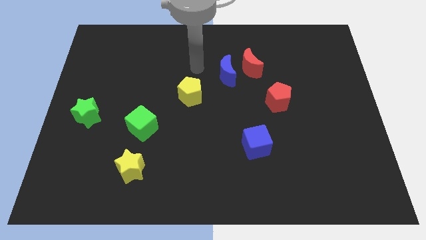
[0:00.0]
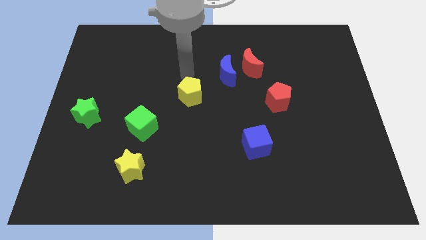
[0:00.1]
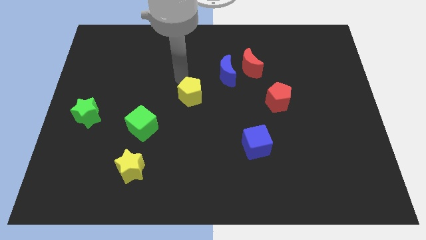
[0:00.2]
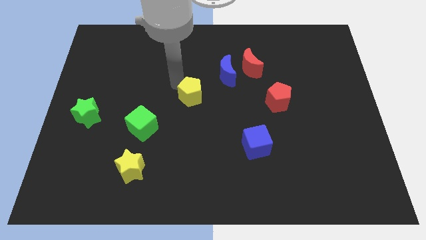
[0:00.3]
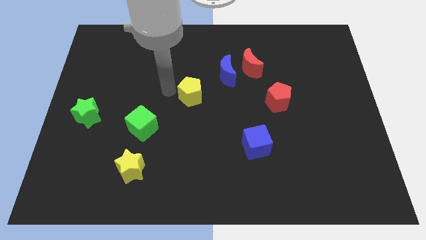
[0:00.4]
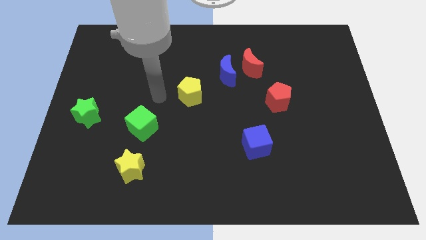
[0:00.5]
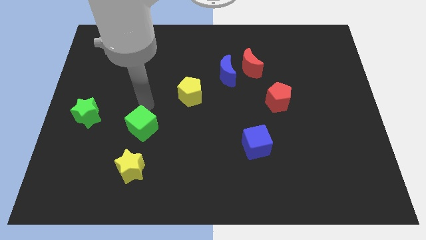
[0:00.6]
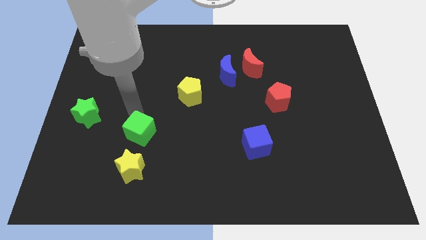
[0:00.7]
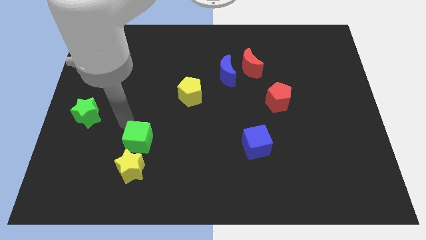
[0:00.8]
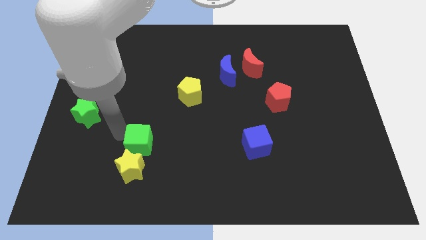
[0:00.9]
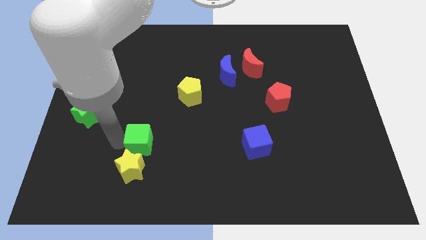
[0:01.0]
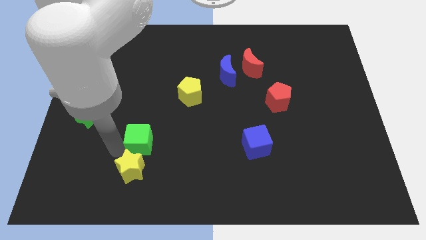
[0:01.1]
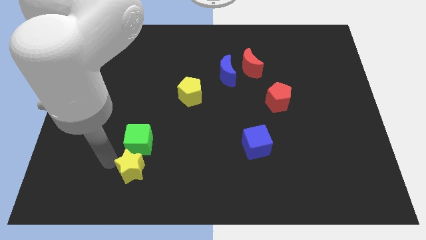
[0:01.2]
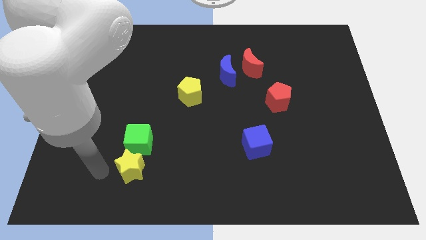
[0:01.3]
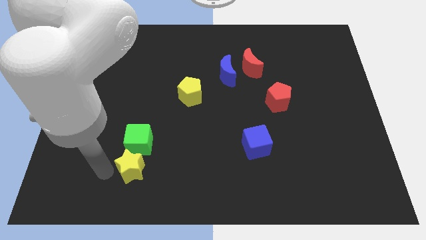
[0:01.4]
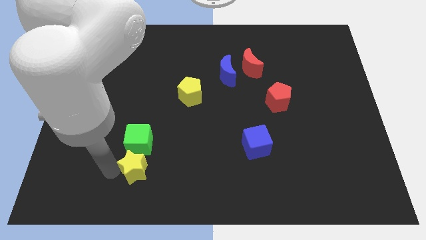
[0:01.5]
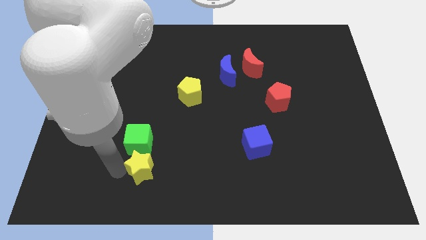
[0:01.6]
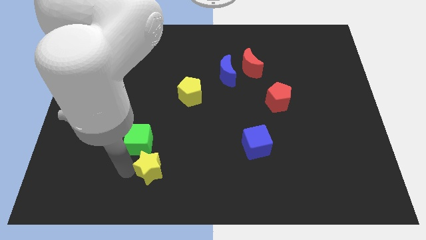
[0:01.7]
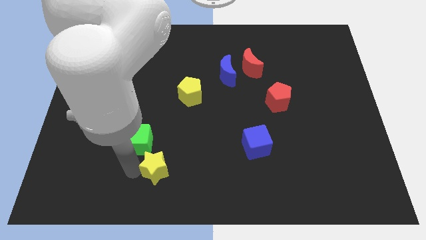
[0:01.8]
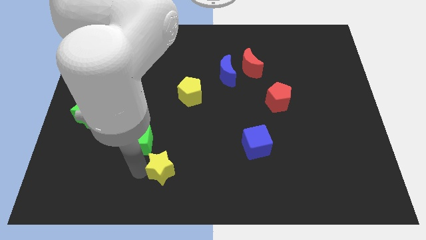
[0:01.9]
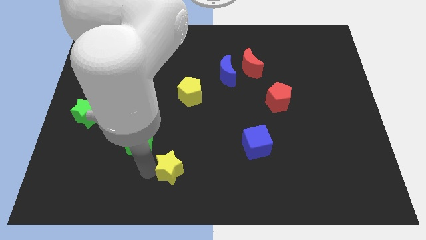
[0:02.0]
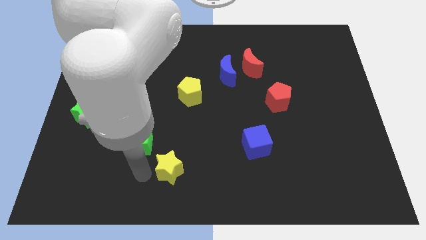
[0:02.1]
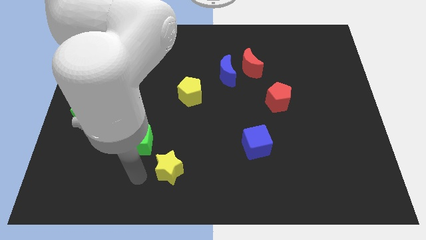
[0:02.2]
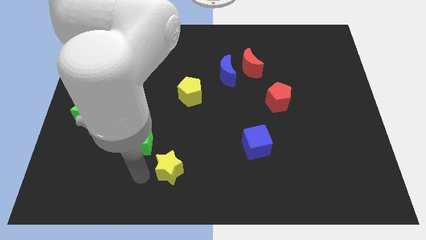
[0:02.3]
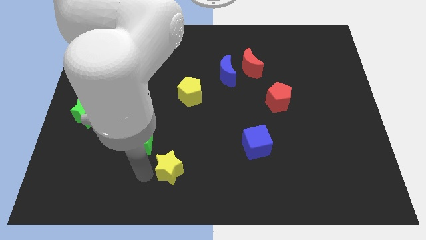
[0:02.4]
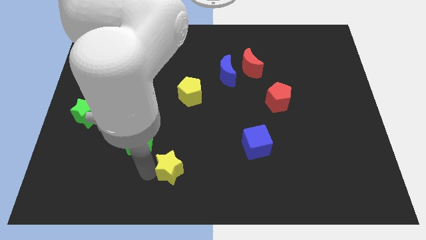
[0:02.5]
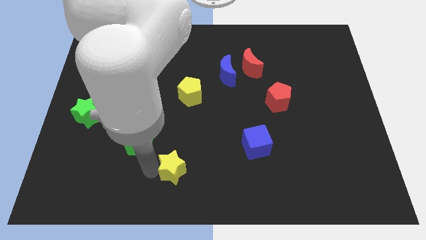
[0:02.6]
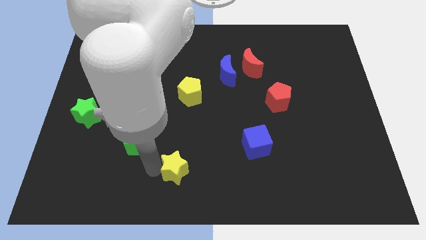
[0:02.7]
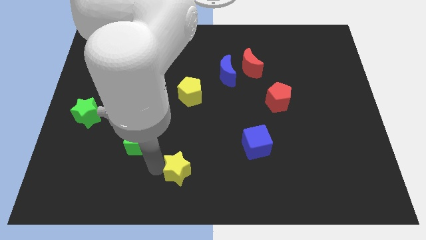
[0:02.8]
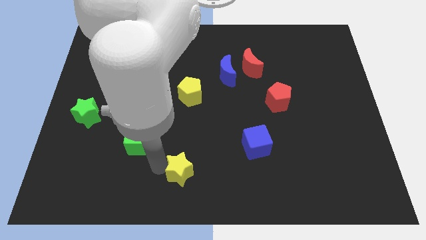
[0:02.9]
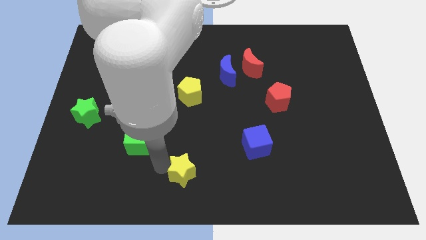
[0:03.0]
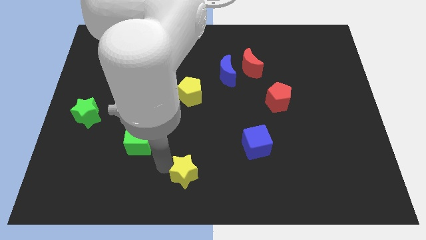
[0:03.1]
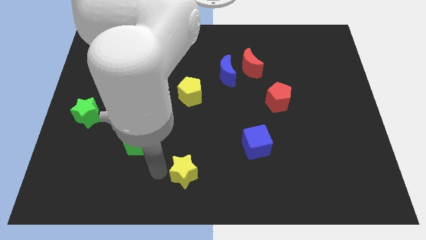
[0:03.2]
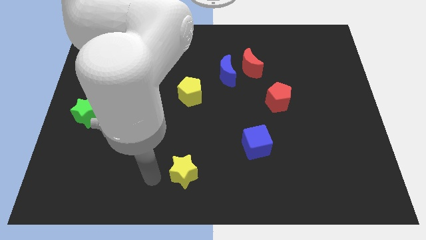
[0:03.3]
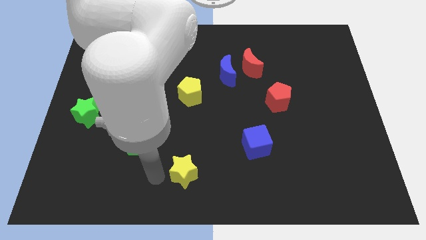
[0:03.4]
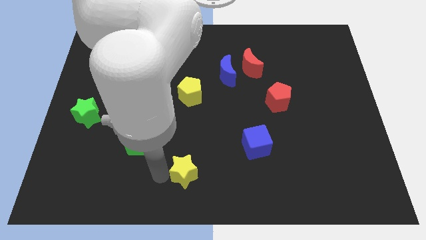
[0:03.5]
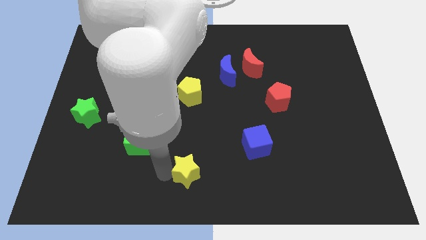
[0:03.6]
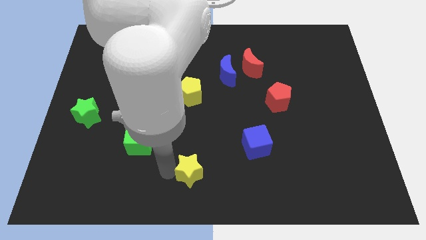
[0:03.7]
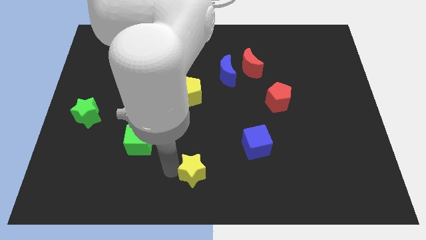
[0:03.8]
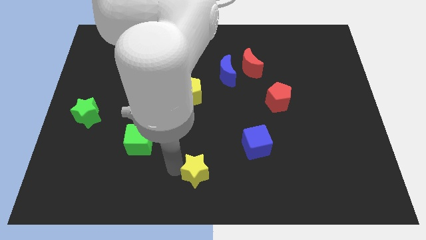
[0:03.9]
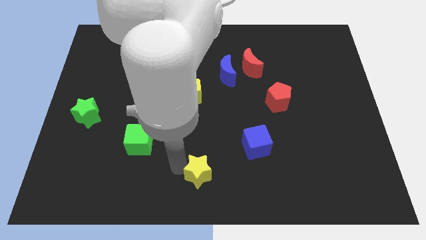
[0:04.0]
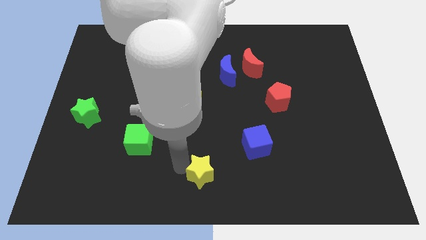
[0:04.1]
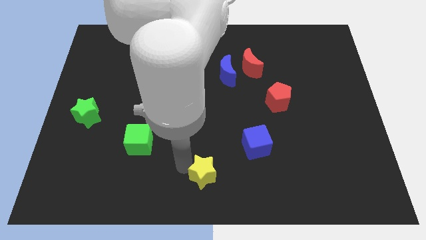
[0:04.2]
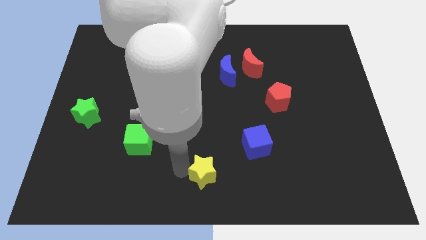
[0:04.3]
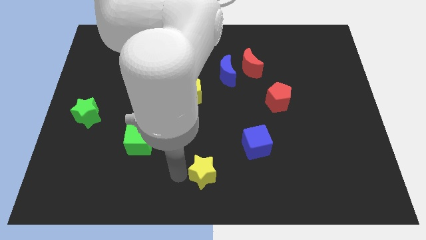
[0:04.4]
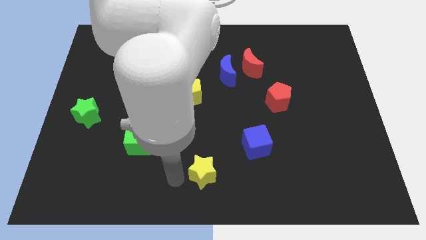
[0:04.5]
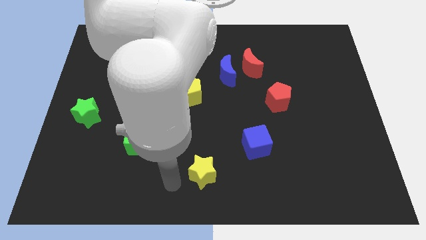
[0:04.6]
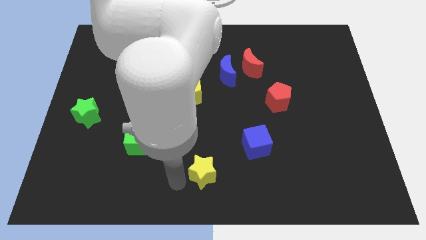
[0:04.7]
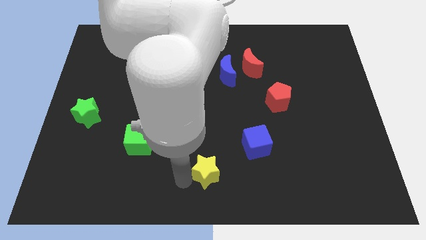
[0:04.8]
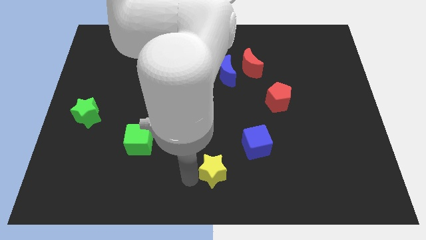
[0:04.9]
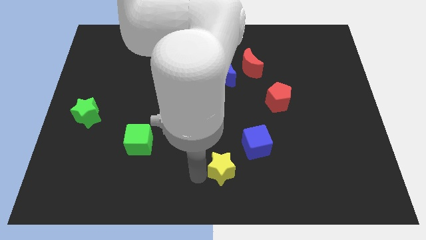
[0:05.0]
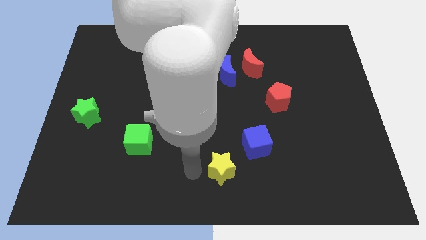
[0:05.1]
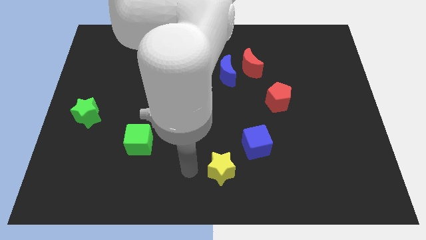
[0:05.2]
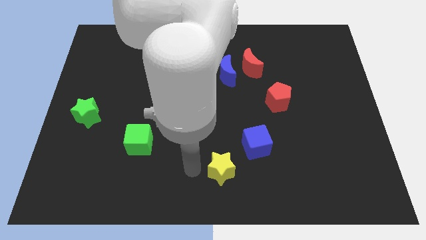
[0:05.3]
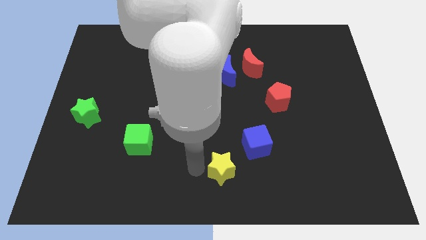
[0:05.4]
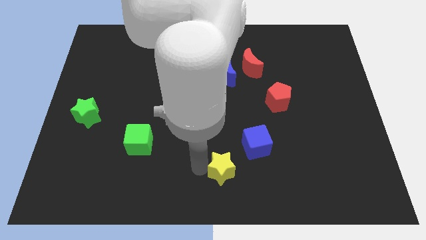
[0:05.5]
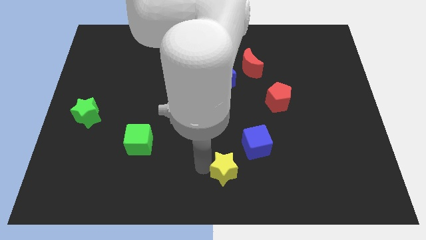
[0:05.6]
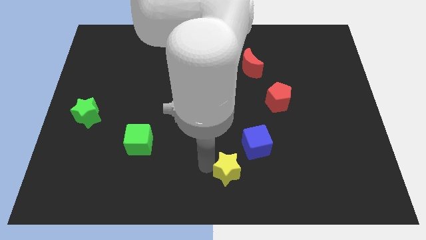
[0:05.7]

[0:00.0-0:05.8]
push the yellow star right

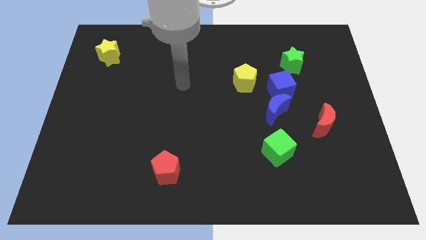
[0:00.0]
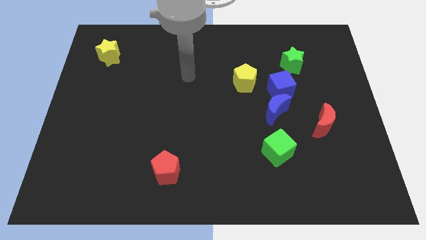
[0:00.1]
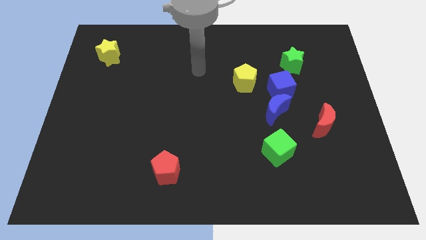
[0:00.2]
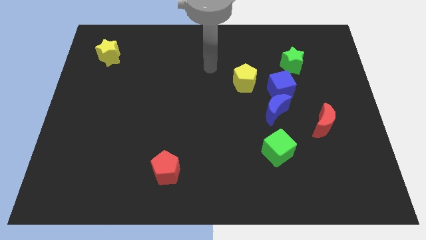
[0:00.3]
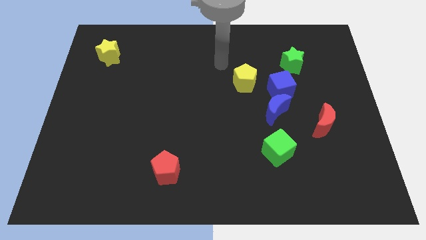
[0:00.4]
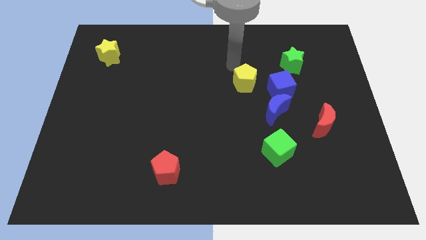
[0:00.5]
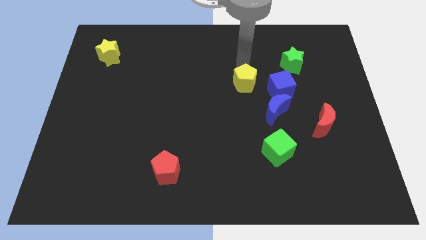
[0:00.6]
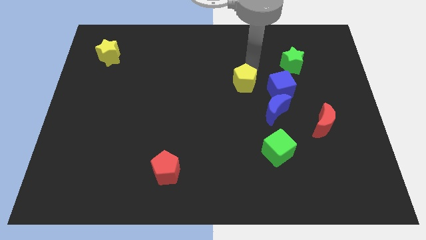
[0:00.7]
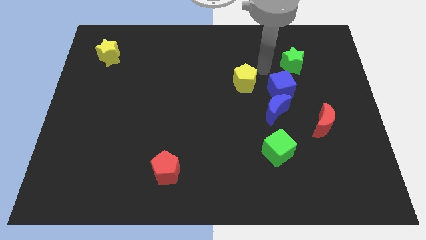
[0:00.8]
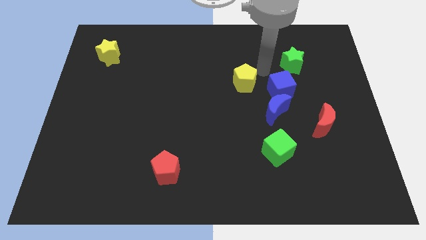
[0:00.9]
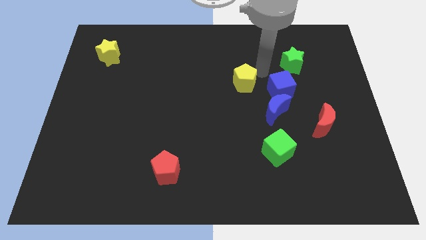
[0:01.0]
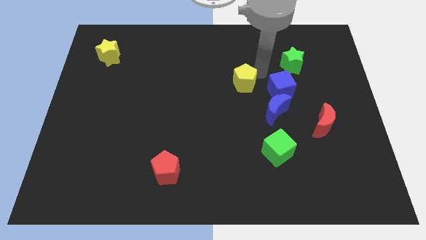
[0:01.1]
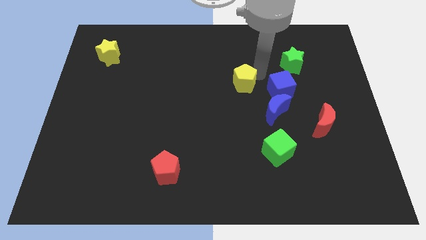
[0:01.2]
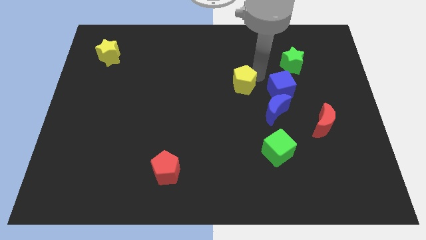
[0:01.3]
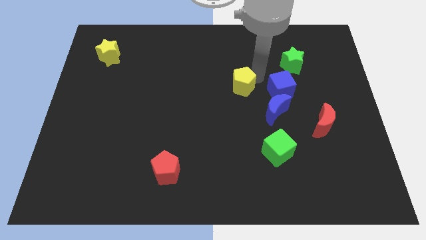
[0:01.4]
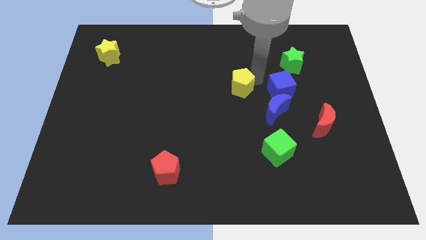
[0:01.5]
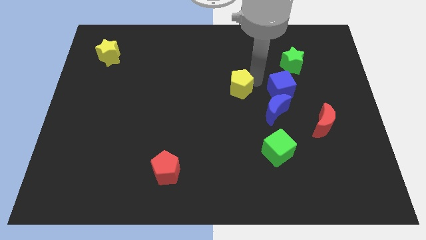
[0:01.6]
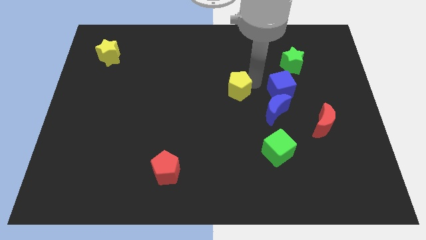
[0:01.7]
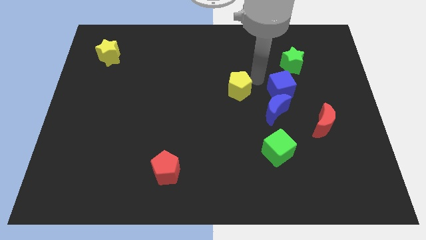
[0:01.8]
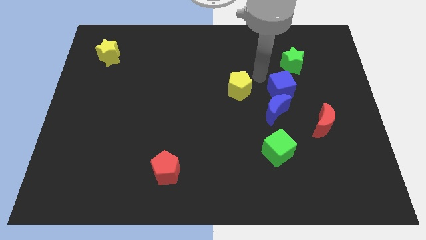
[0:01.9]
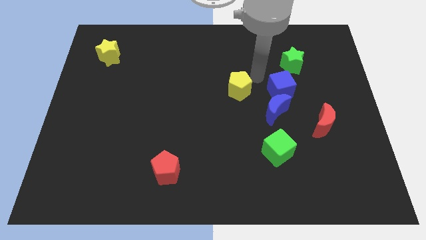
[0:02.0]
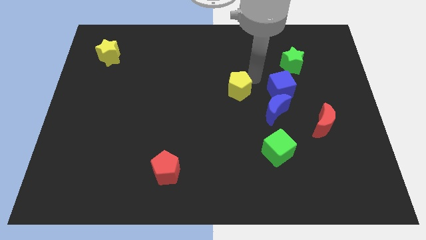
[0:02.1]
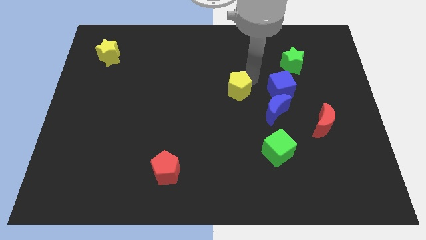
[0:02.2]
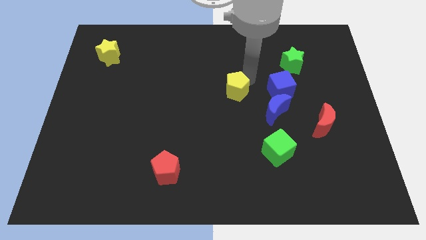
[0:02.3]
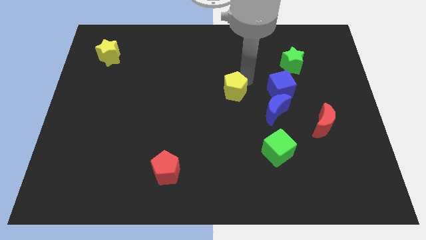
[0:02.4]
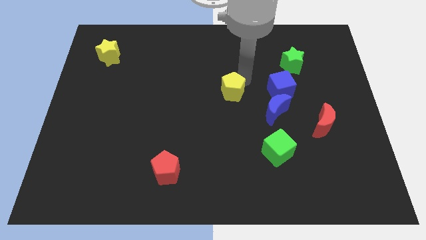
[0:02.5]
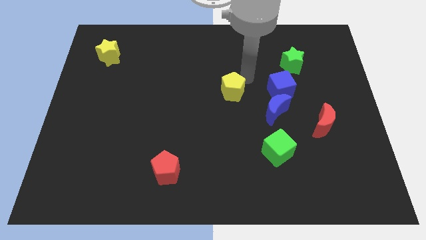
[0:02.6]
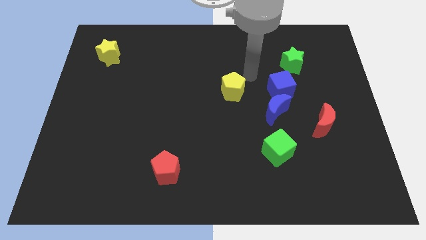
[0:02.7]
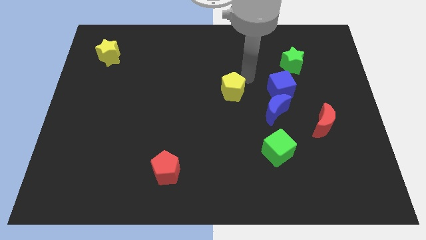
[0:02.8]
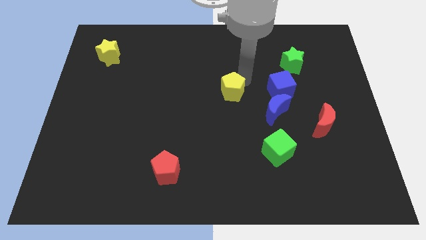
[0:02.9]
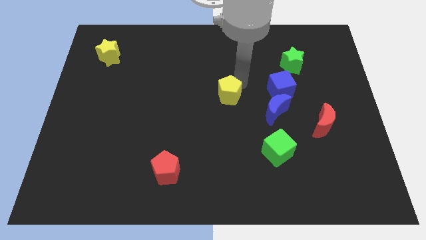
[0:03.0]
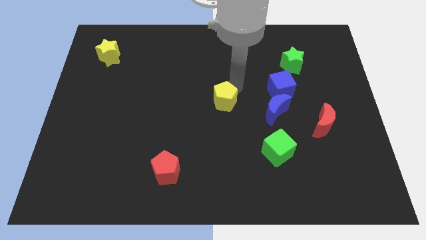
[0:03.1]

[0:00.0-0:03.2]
move the yellow pentagon somewhat downwards and left
